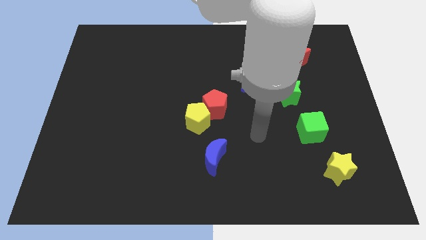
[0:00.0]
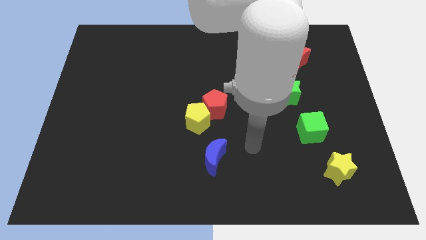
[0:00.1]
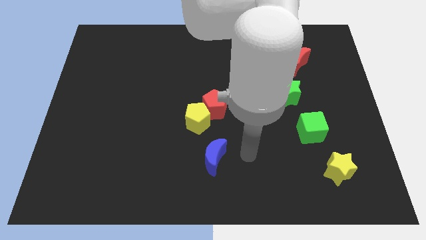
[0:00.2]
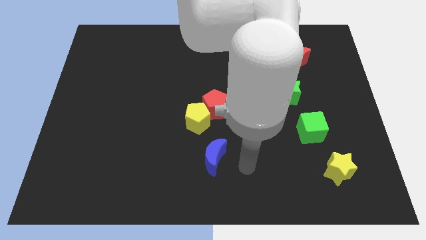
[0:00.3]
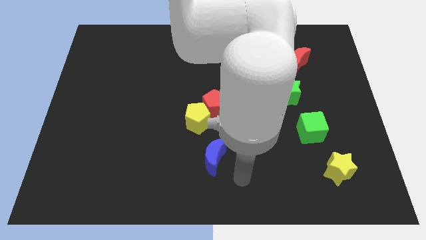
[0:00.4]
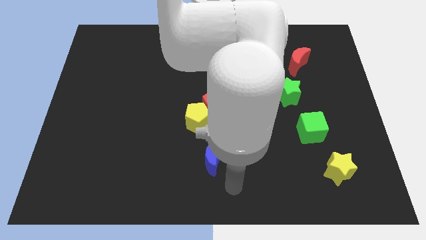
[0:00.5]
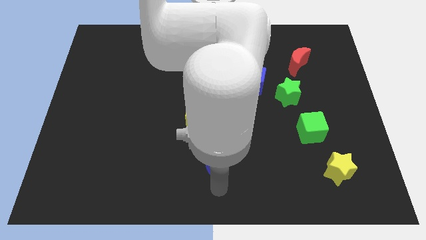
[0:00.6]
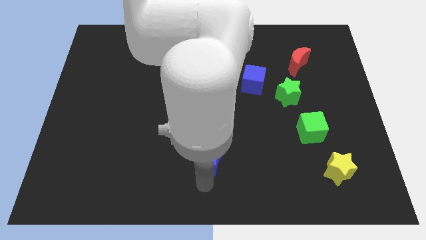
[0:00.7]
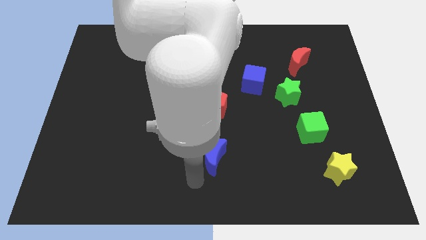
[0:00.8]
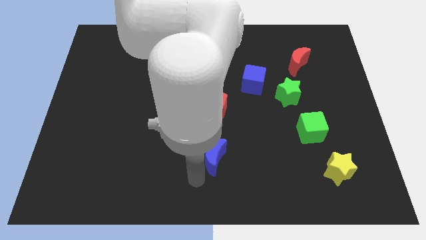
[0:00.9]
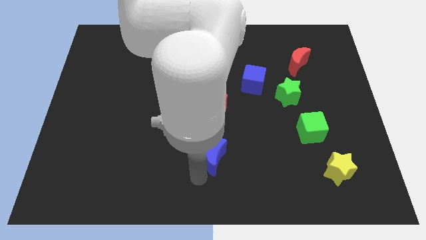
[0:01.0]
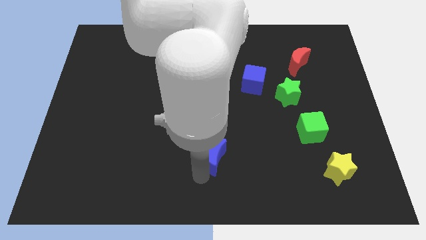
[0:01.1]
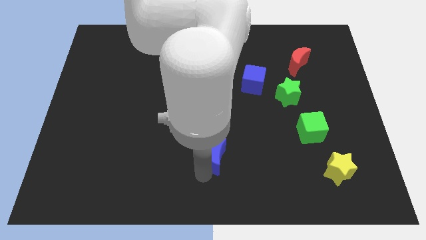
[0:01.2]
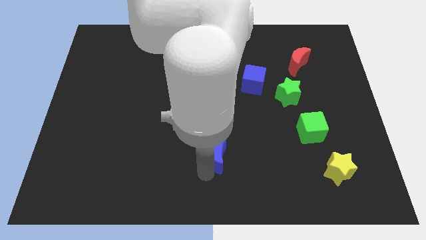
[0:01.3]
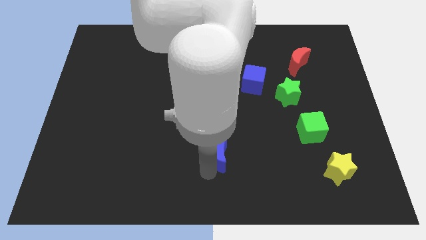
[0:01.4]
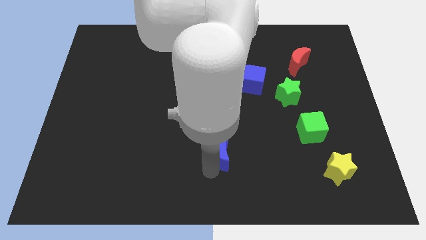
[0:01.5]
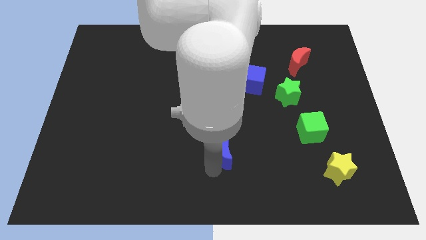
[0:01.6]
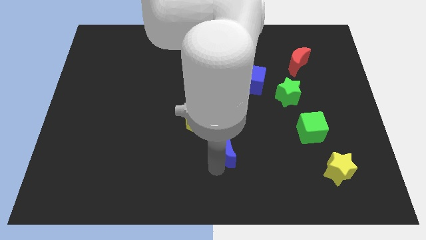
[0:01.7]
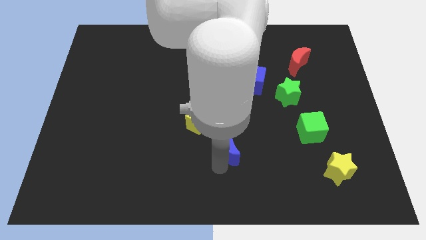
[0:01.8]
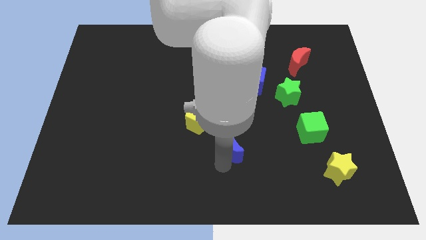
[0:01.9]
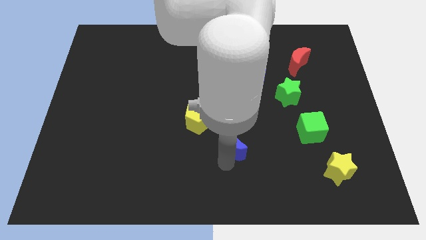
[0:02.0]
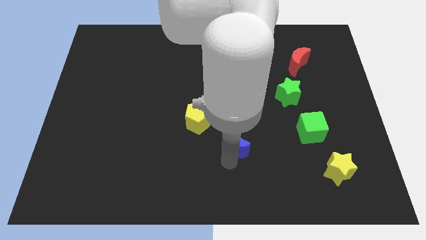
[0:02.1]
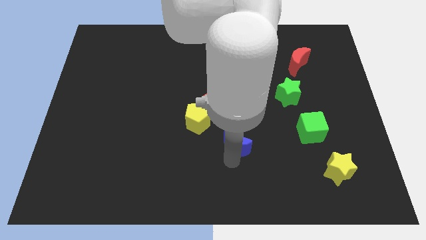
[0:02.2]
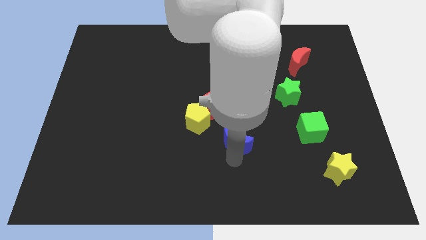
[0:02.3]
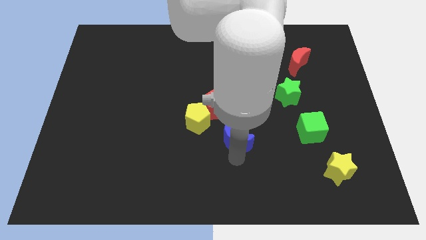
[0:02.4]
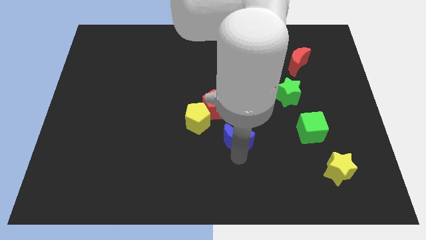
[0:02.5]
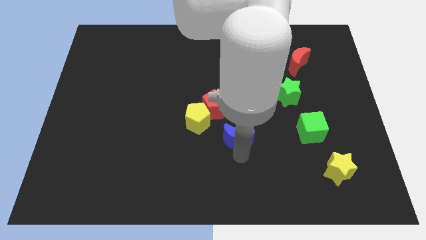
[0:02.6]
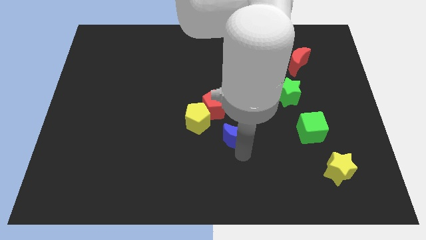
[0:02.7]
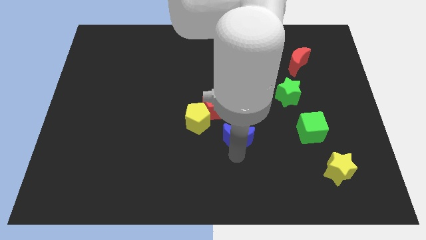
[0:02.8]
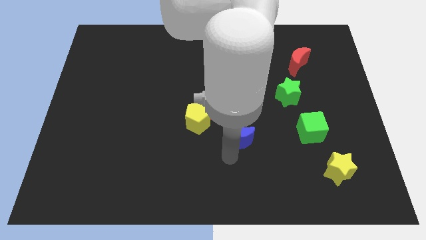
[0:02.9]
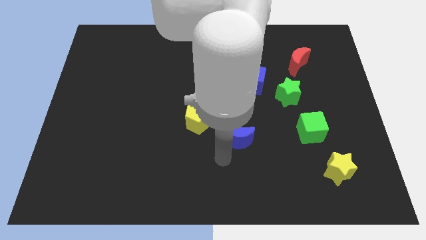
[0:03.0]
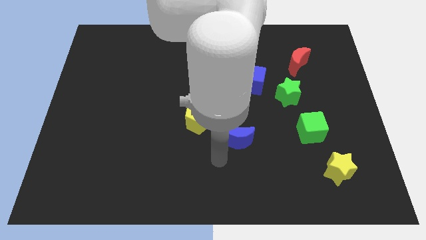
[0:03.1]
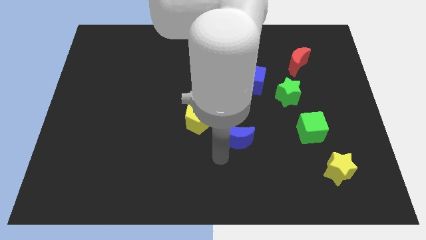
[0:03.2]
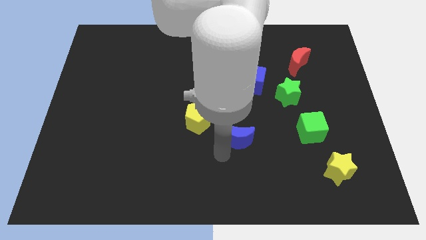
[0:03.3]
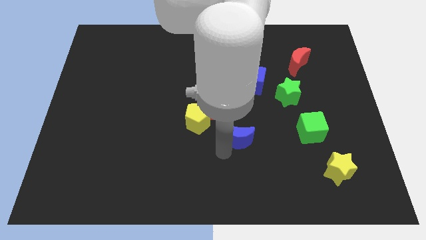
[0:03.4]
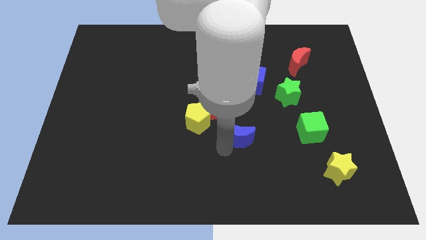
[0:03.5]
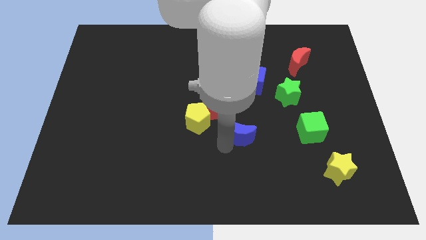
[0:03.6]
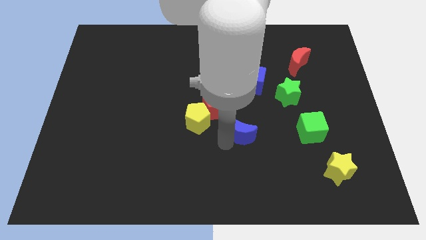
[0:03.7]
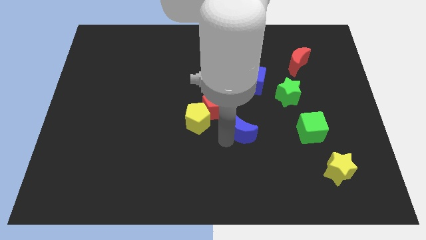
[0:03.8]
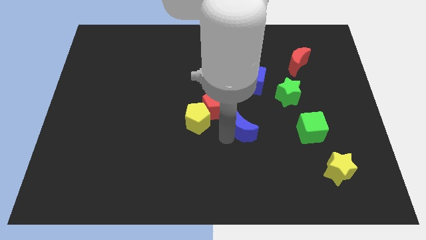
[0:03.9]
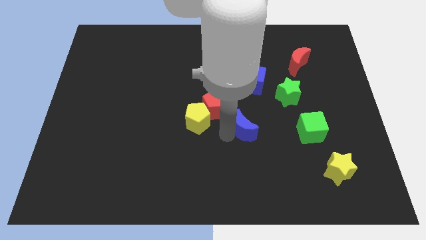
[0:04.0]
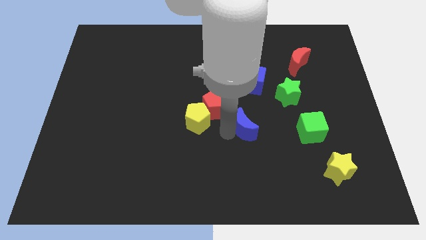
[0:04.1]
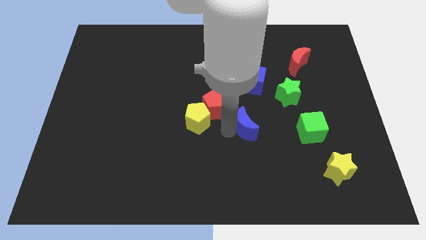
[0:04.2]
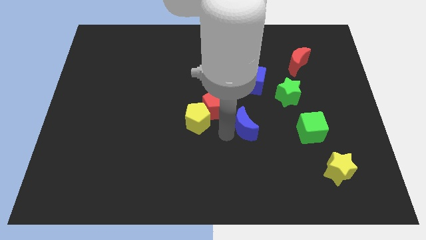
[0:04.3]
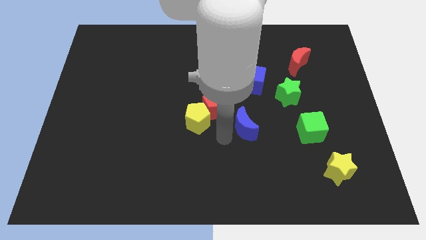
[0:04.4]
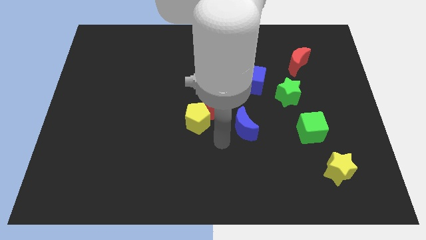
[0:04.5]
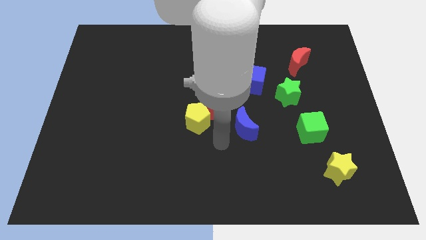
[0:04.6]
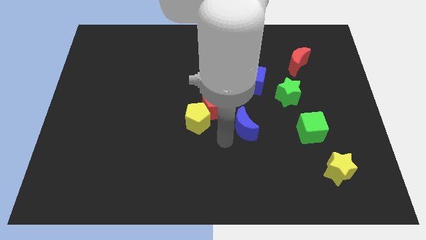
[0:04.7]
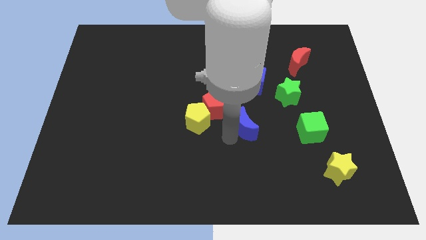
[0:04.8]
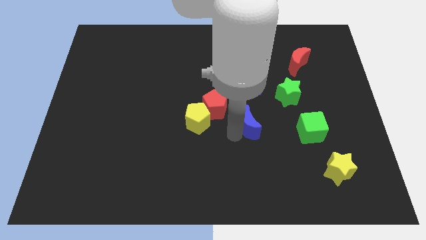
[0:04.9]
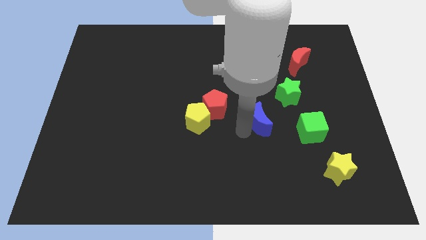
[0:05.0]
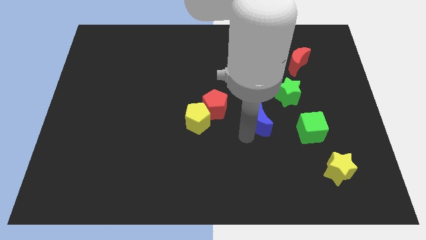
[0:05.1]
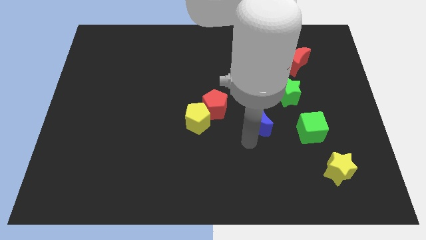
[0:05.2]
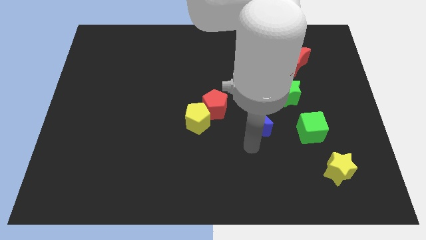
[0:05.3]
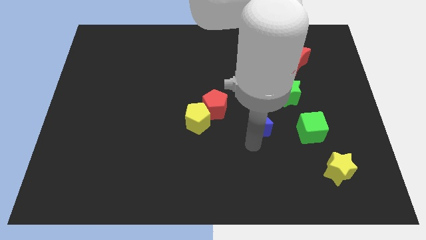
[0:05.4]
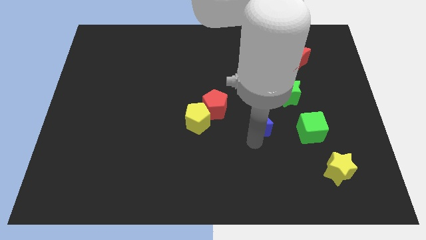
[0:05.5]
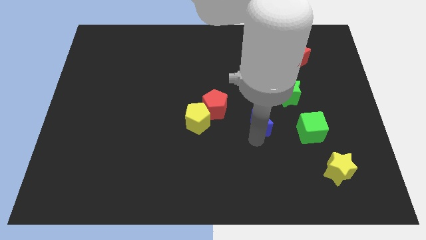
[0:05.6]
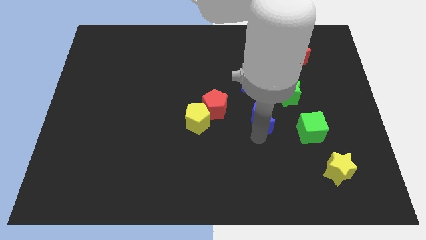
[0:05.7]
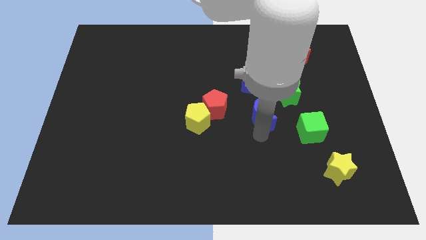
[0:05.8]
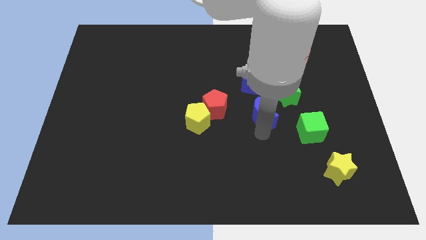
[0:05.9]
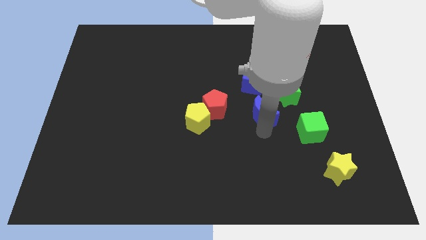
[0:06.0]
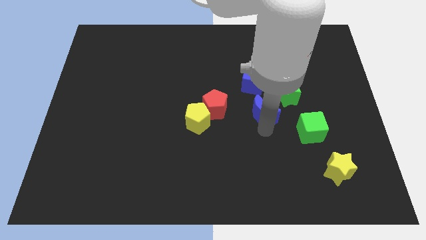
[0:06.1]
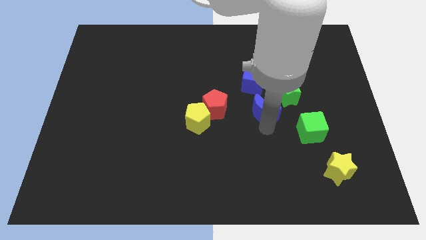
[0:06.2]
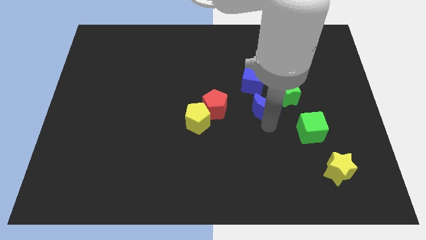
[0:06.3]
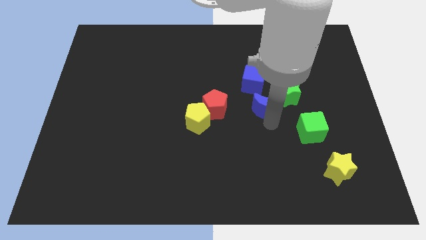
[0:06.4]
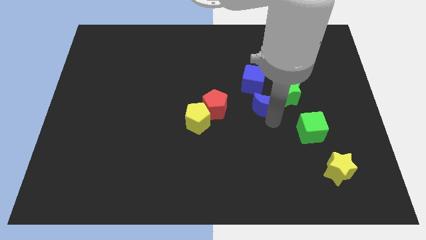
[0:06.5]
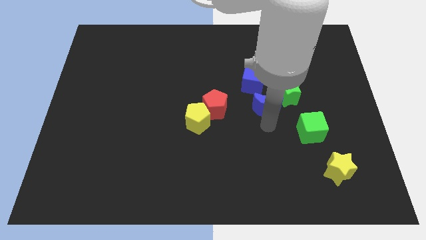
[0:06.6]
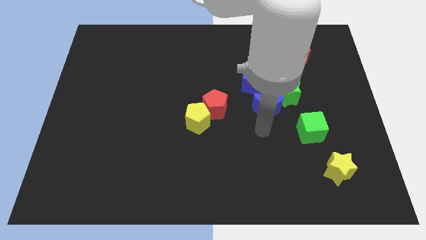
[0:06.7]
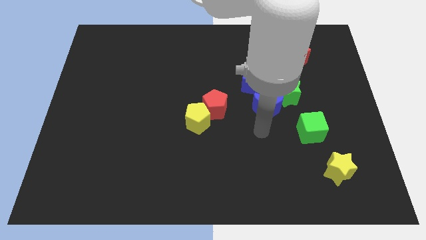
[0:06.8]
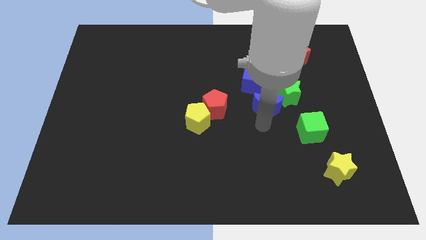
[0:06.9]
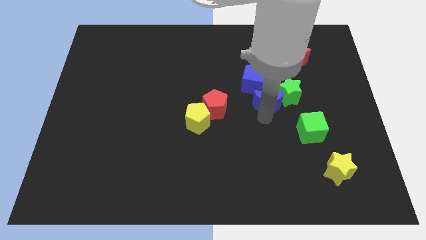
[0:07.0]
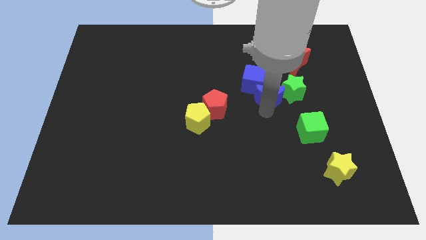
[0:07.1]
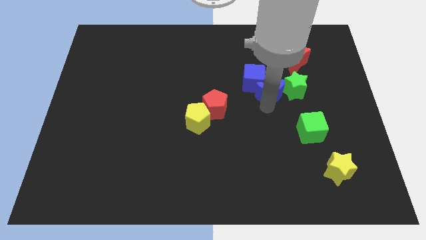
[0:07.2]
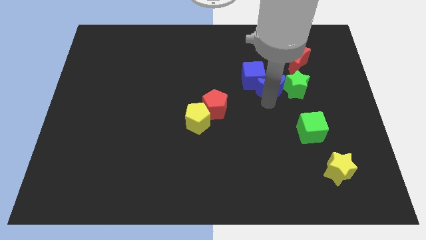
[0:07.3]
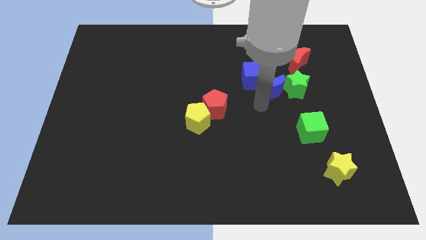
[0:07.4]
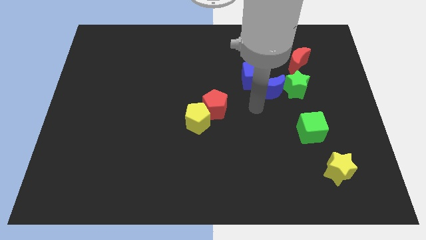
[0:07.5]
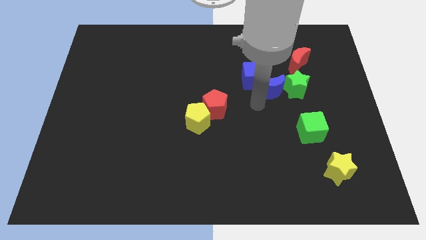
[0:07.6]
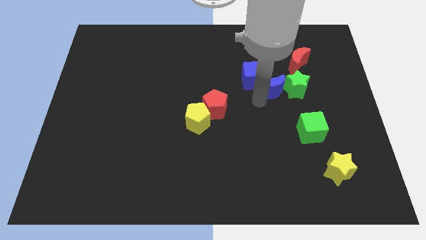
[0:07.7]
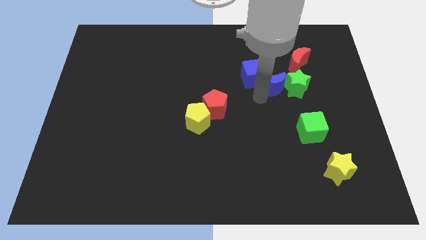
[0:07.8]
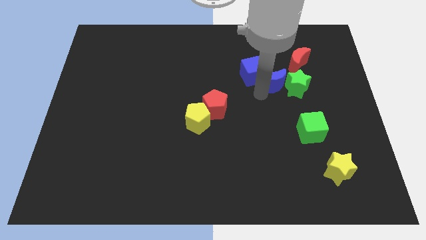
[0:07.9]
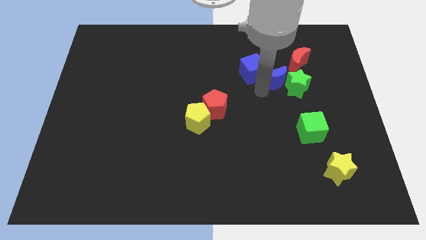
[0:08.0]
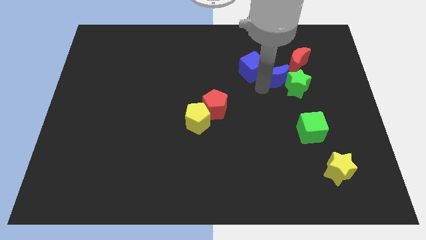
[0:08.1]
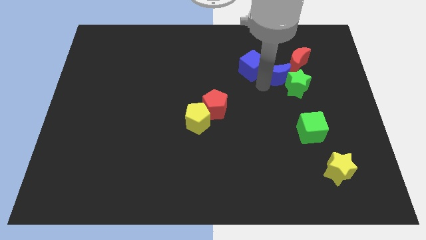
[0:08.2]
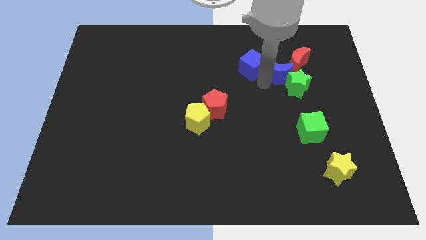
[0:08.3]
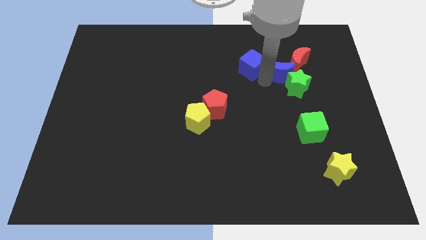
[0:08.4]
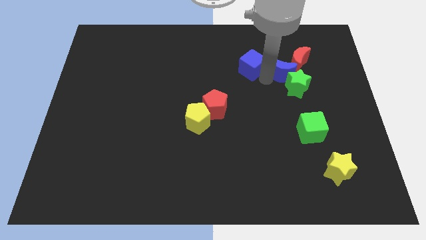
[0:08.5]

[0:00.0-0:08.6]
slide the blue moon to the red moon
